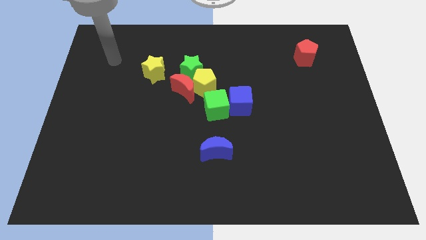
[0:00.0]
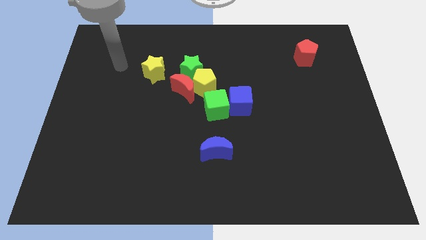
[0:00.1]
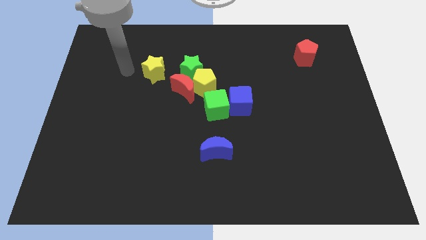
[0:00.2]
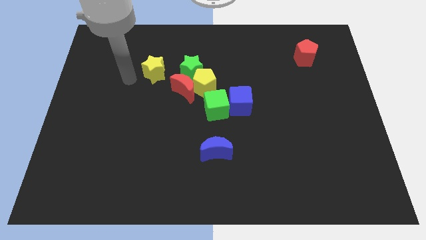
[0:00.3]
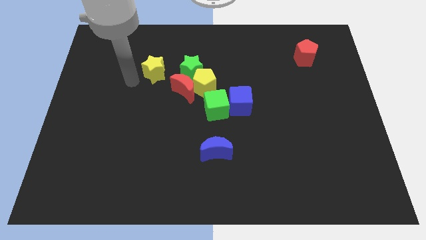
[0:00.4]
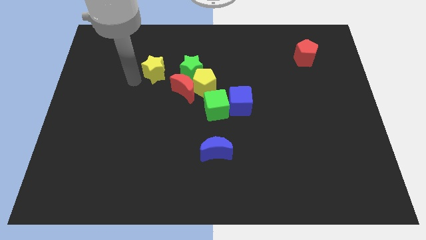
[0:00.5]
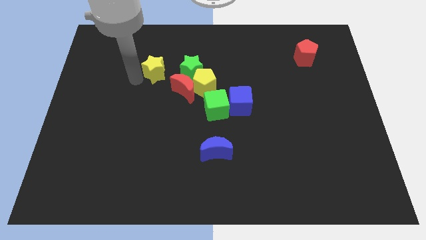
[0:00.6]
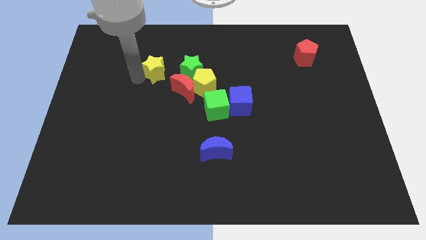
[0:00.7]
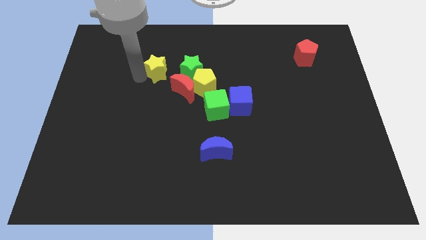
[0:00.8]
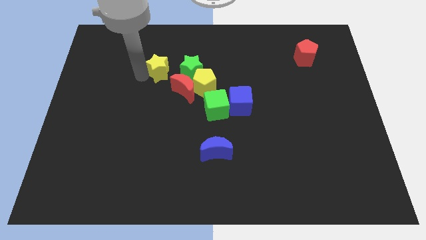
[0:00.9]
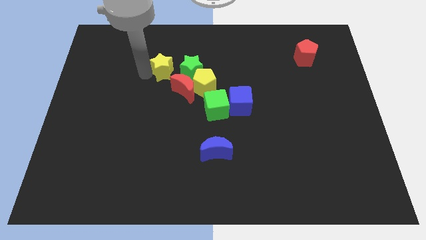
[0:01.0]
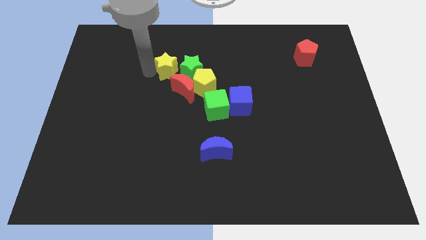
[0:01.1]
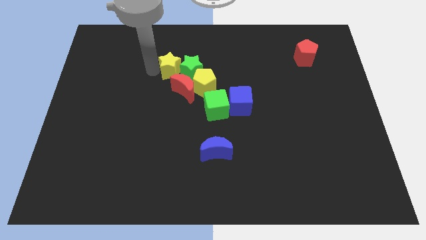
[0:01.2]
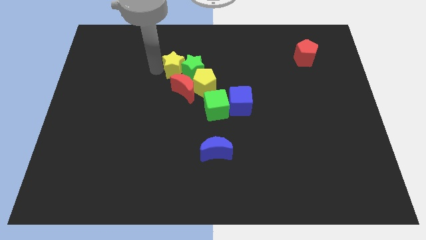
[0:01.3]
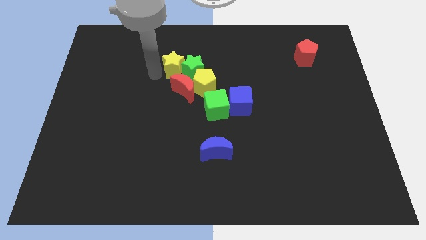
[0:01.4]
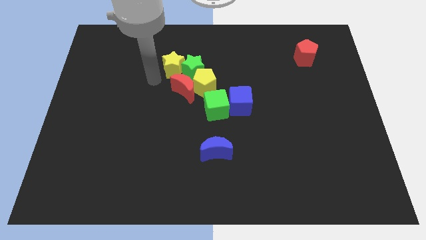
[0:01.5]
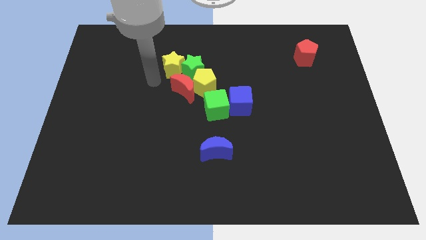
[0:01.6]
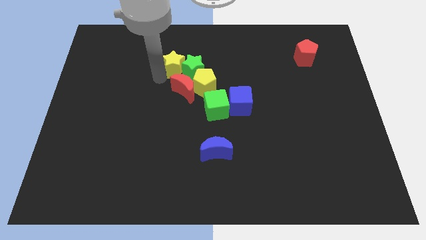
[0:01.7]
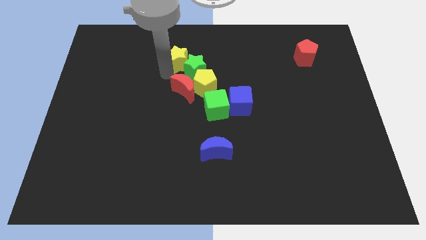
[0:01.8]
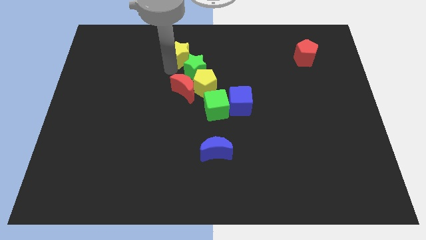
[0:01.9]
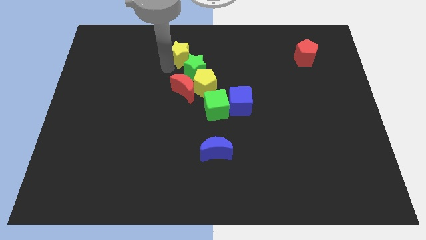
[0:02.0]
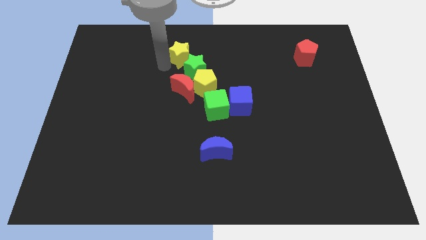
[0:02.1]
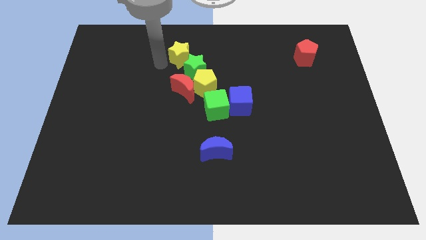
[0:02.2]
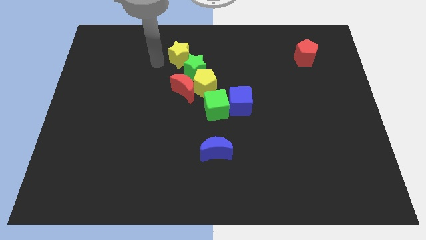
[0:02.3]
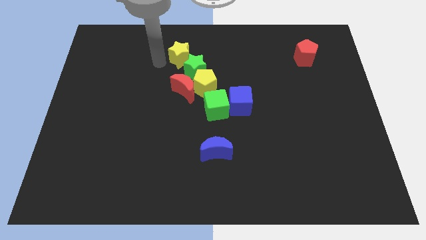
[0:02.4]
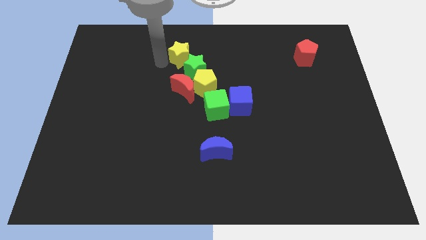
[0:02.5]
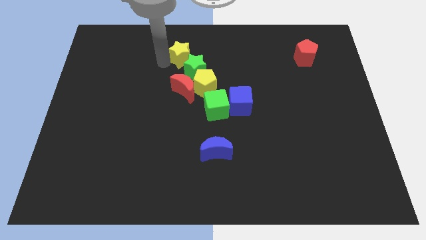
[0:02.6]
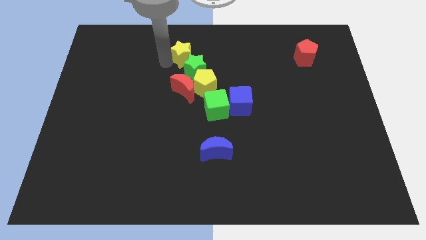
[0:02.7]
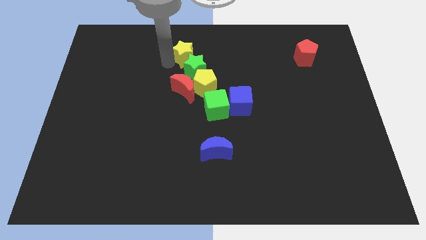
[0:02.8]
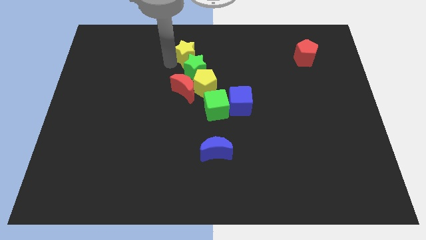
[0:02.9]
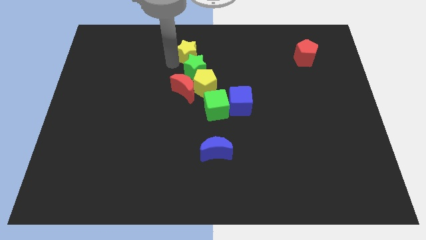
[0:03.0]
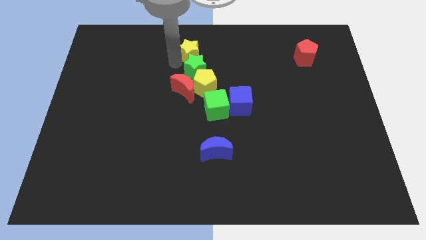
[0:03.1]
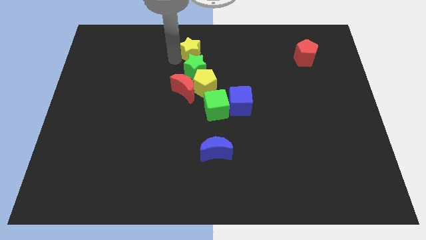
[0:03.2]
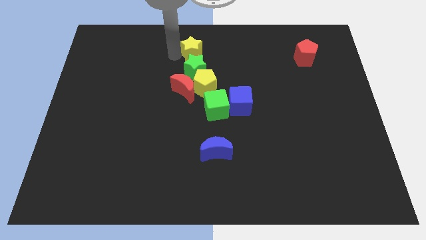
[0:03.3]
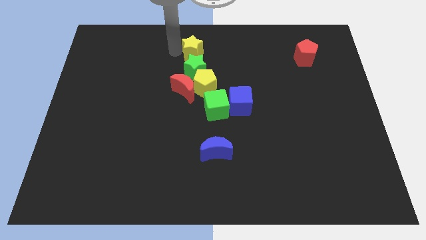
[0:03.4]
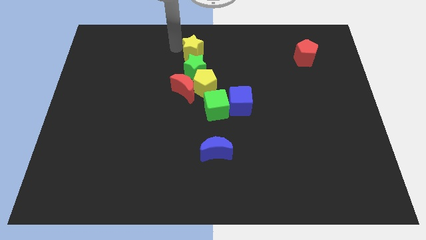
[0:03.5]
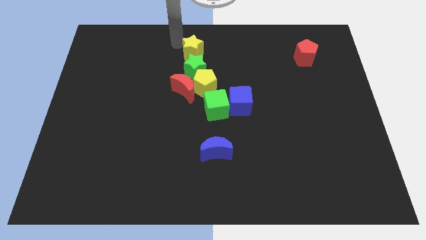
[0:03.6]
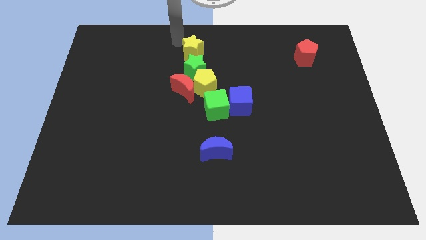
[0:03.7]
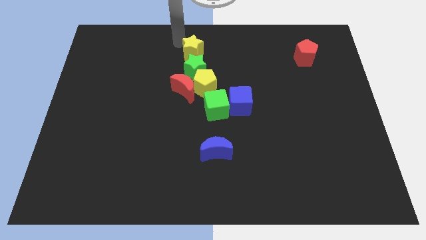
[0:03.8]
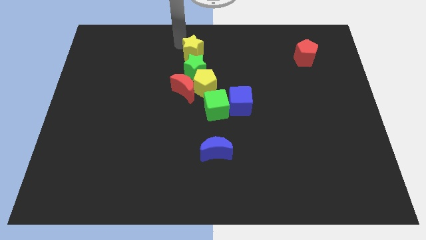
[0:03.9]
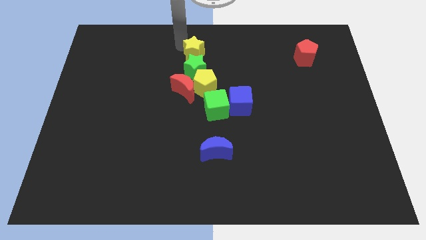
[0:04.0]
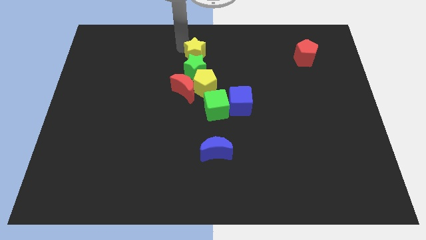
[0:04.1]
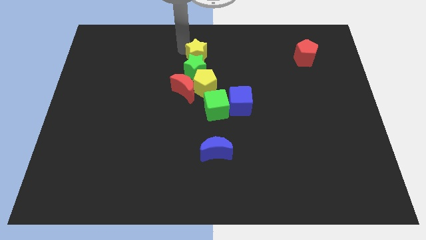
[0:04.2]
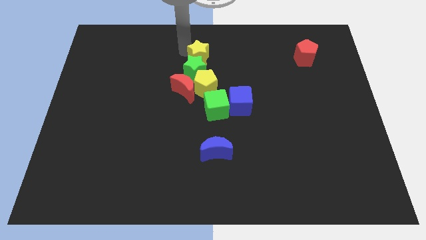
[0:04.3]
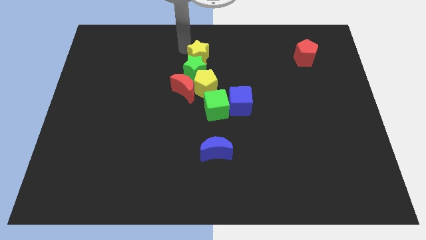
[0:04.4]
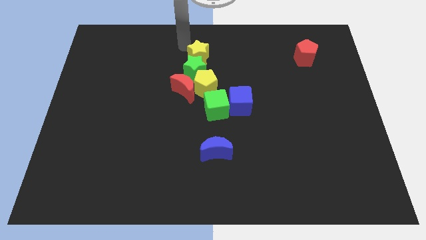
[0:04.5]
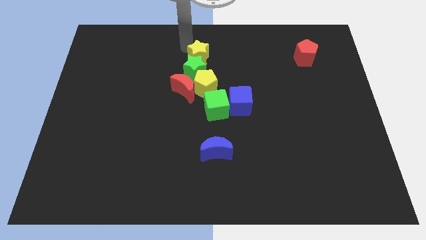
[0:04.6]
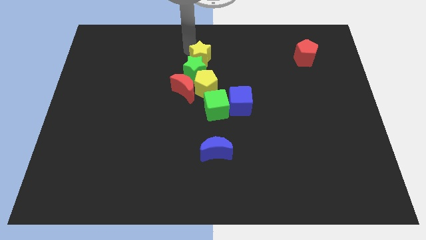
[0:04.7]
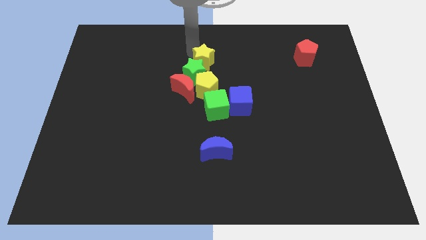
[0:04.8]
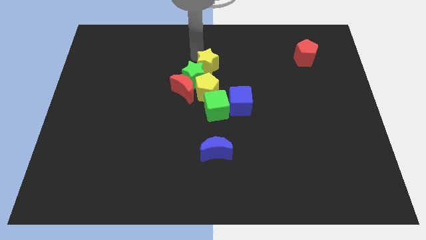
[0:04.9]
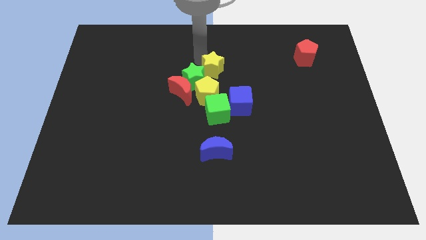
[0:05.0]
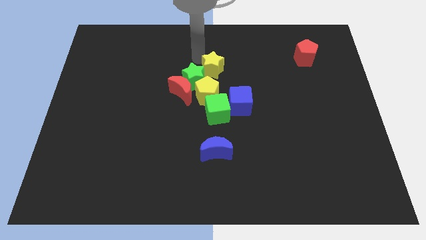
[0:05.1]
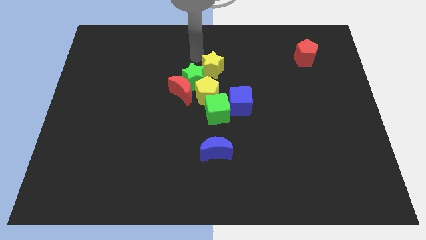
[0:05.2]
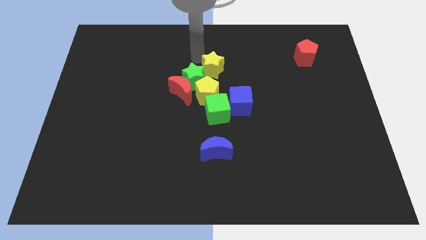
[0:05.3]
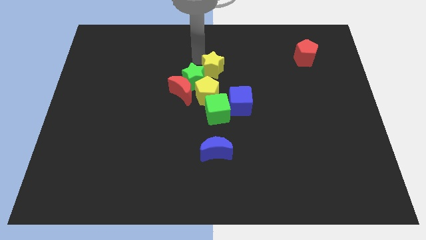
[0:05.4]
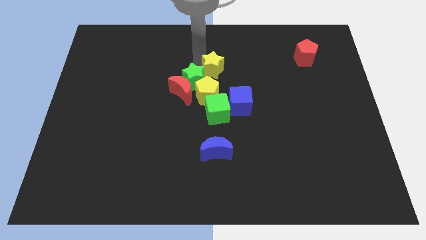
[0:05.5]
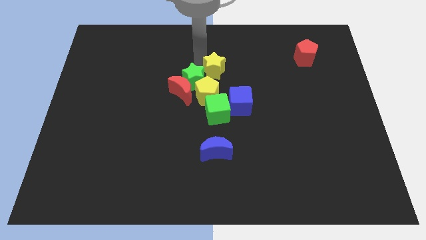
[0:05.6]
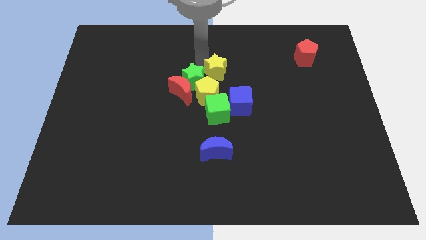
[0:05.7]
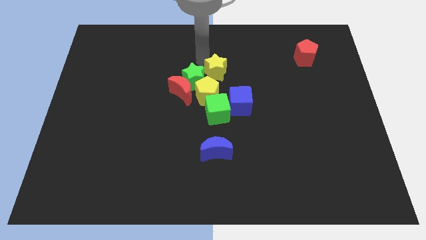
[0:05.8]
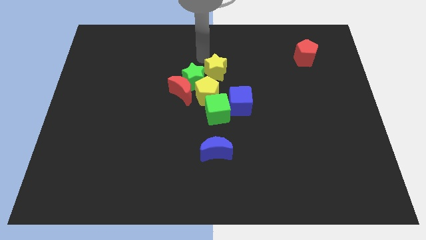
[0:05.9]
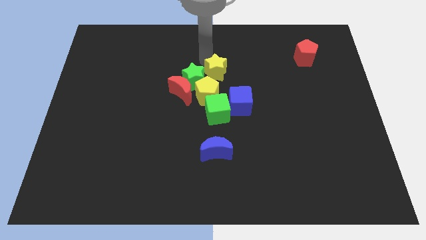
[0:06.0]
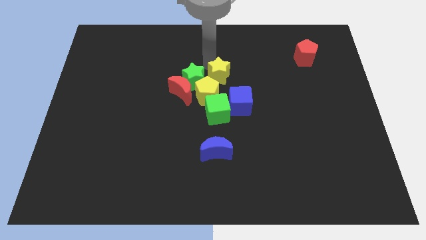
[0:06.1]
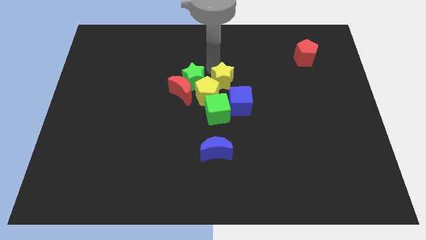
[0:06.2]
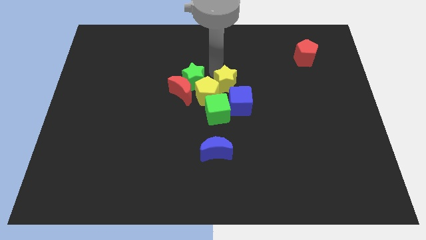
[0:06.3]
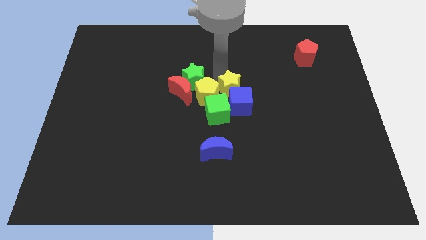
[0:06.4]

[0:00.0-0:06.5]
slide the yellow star close to the blue cube
